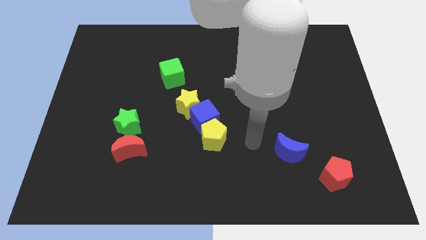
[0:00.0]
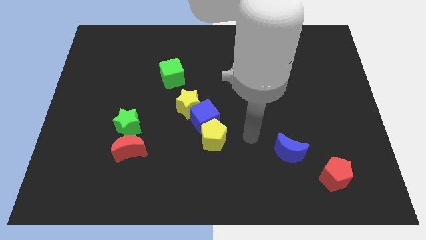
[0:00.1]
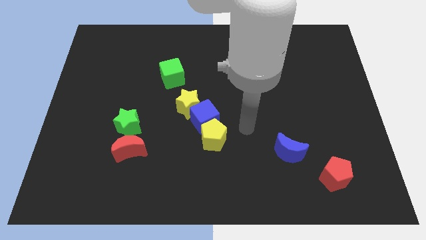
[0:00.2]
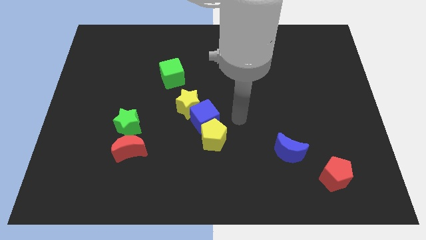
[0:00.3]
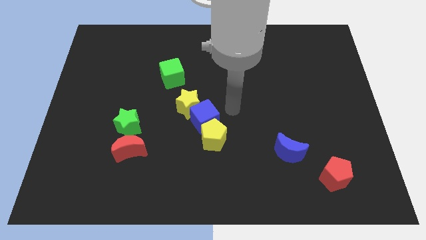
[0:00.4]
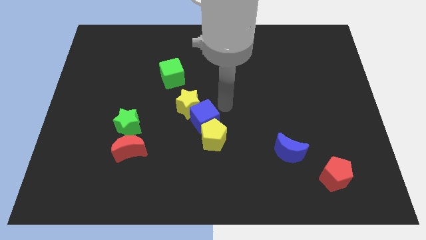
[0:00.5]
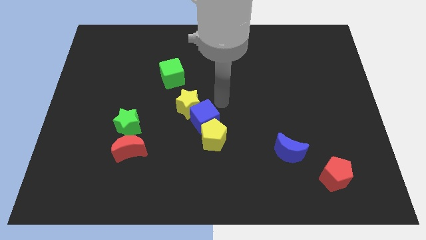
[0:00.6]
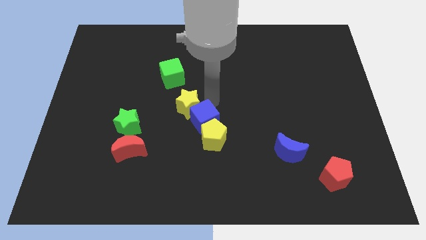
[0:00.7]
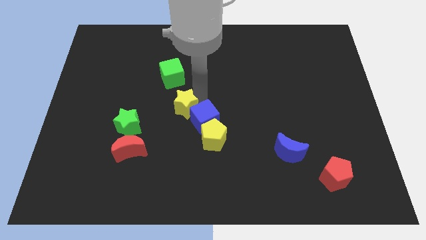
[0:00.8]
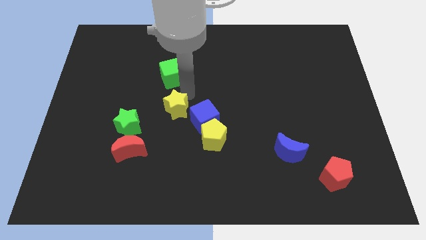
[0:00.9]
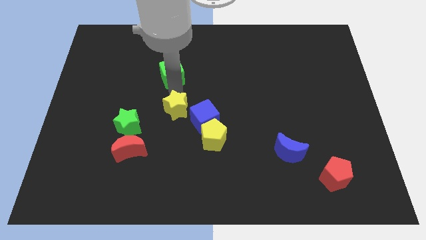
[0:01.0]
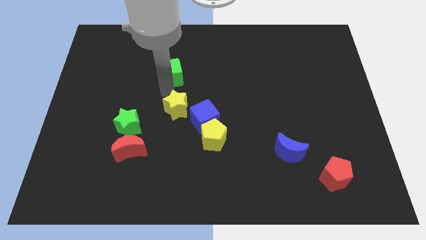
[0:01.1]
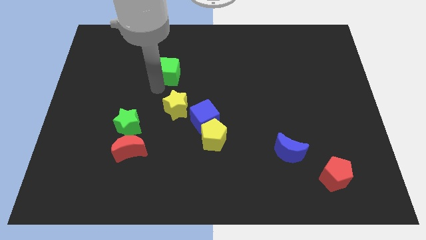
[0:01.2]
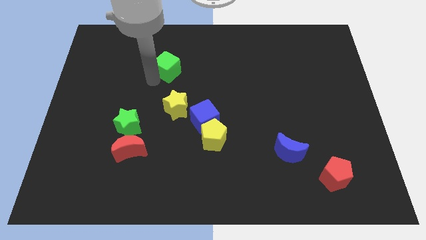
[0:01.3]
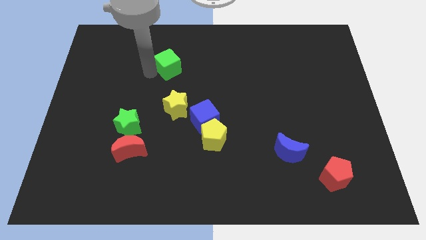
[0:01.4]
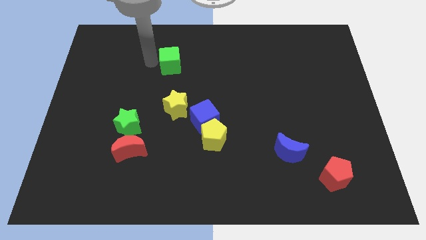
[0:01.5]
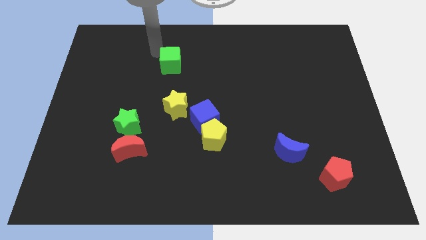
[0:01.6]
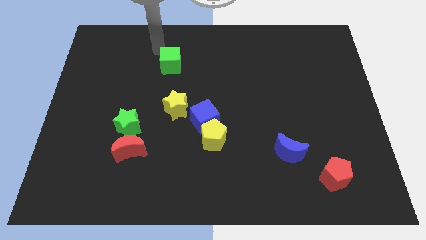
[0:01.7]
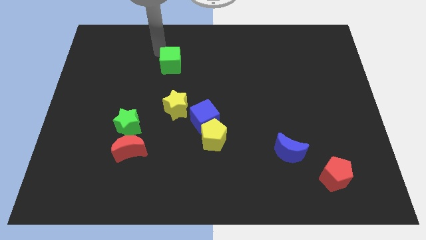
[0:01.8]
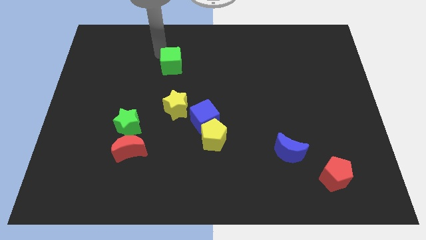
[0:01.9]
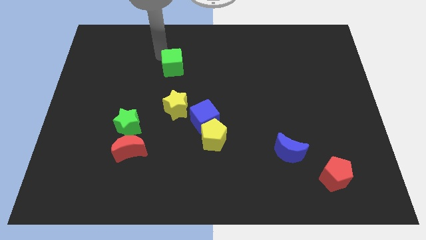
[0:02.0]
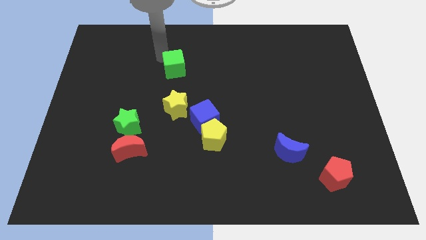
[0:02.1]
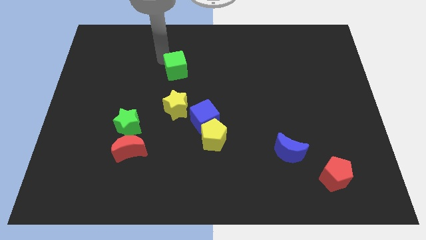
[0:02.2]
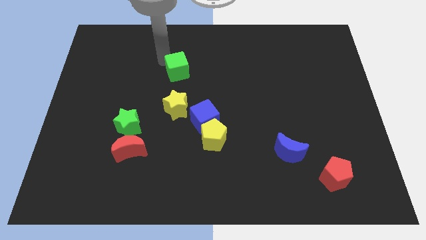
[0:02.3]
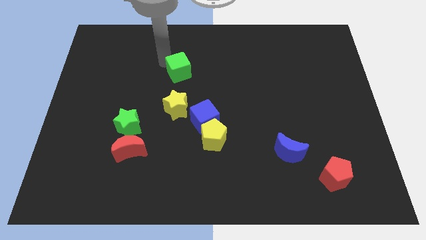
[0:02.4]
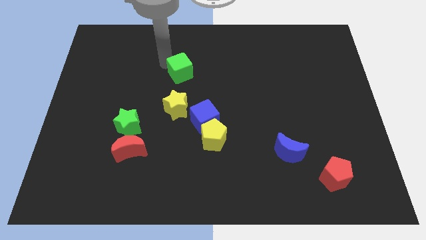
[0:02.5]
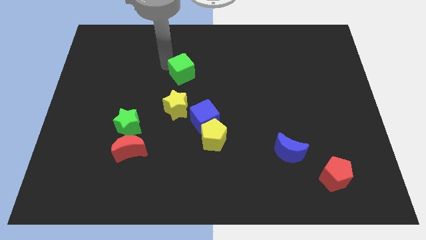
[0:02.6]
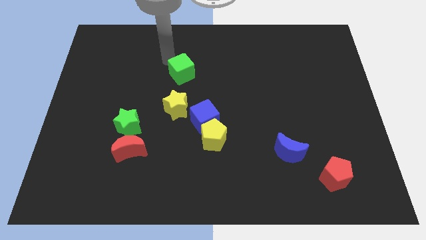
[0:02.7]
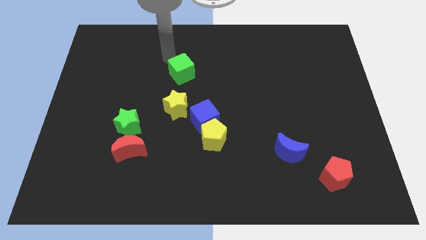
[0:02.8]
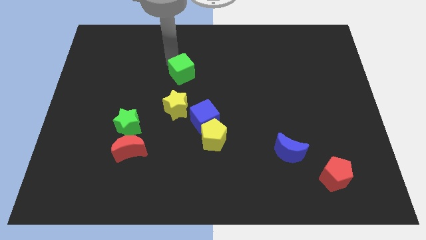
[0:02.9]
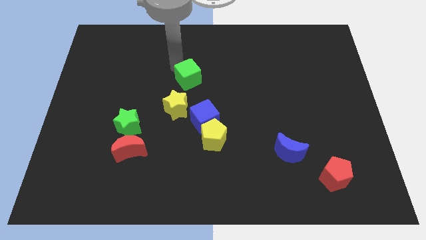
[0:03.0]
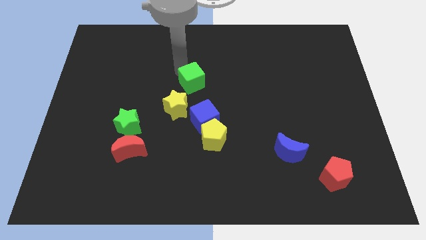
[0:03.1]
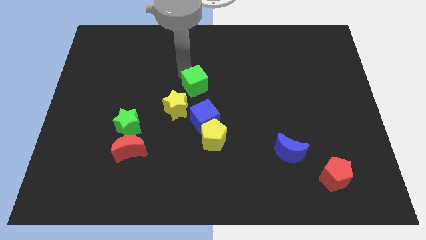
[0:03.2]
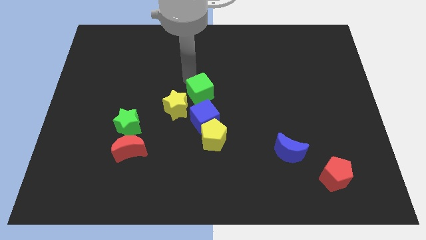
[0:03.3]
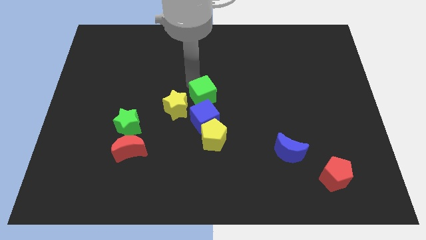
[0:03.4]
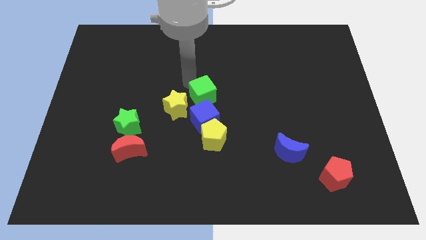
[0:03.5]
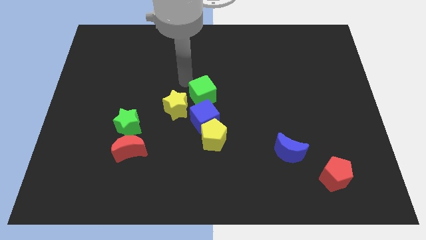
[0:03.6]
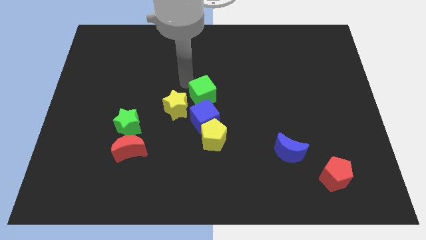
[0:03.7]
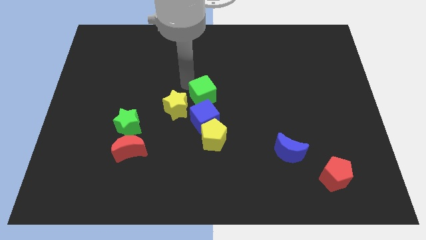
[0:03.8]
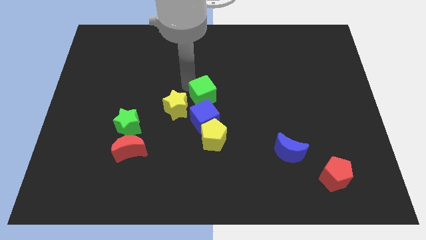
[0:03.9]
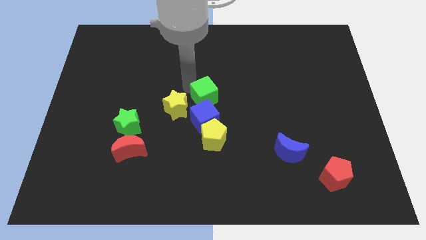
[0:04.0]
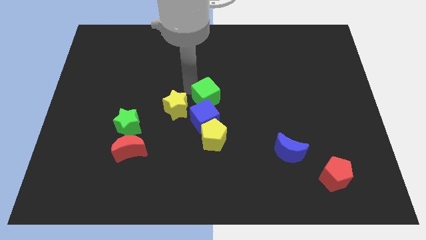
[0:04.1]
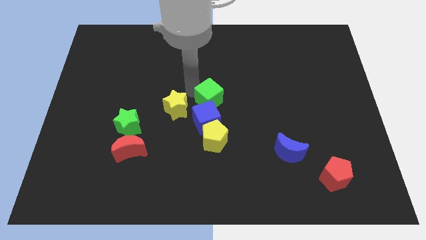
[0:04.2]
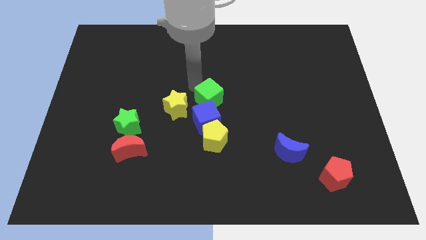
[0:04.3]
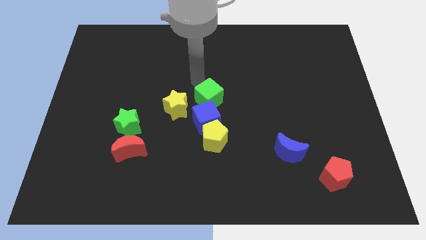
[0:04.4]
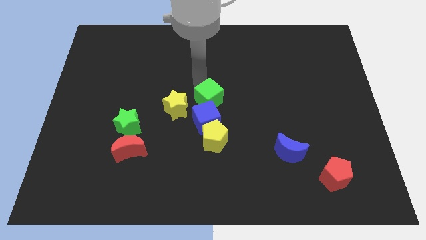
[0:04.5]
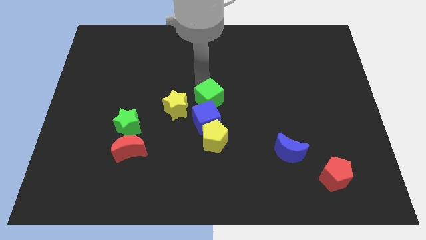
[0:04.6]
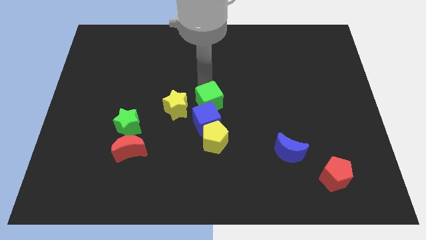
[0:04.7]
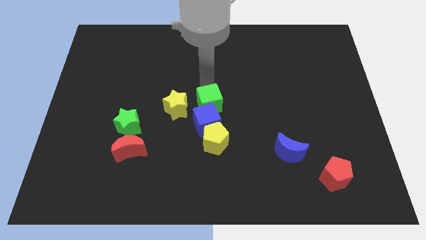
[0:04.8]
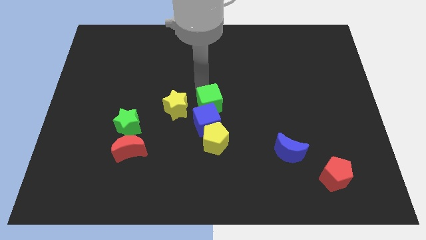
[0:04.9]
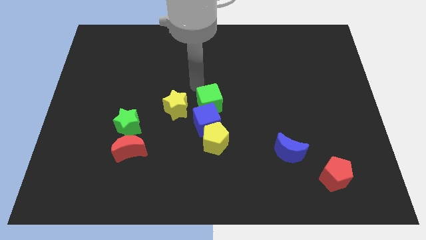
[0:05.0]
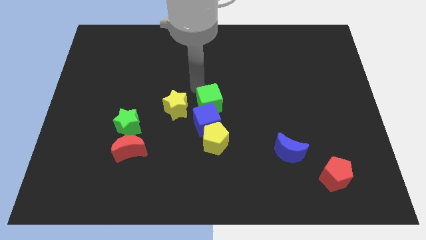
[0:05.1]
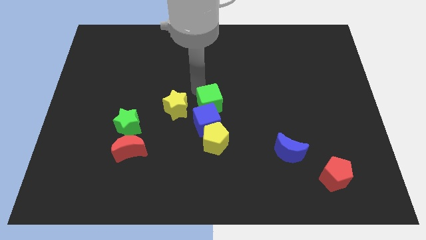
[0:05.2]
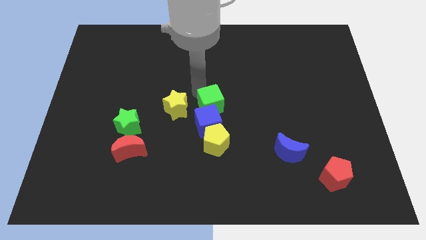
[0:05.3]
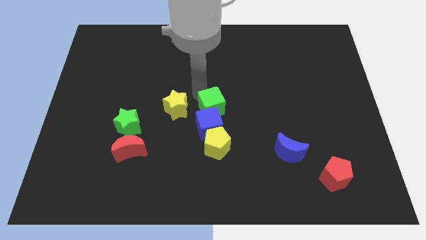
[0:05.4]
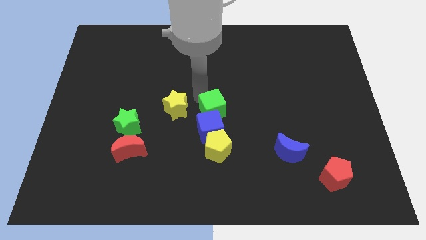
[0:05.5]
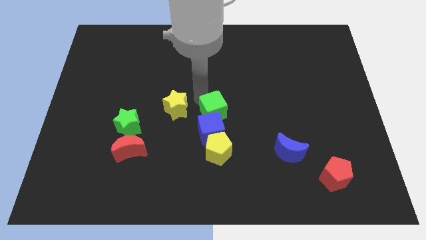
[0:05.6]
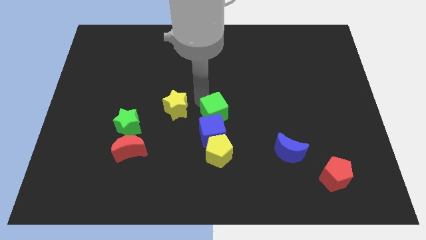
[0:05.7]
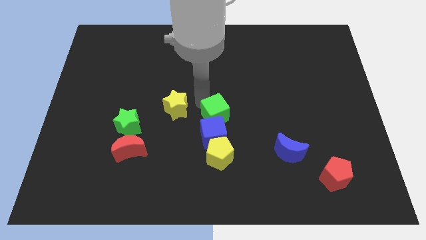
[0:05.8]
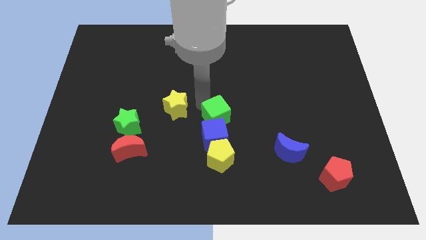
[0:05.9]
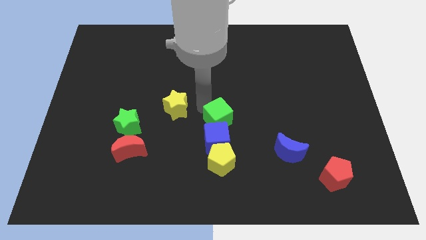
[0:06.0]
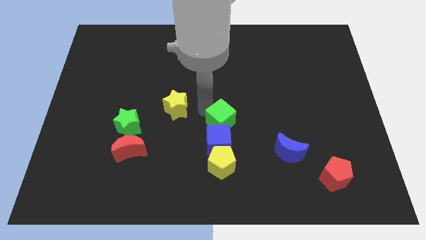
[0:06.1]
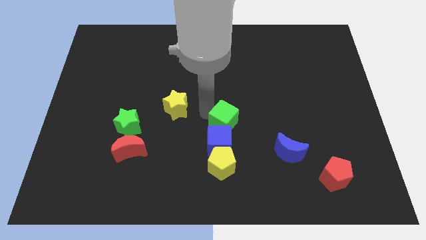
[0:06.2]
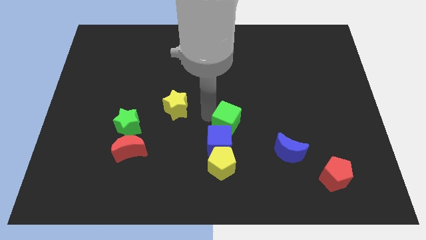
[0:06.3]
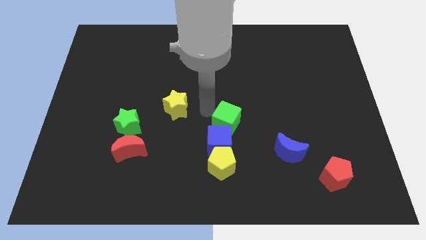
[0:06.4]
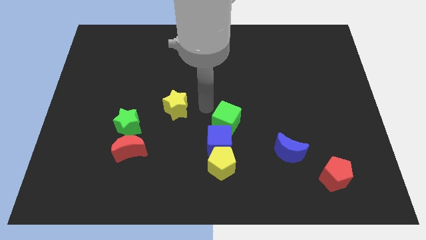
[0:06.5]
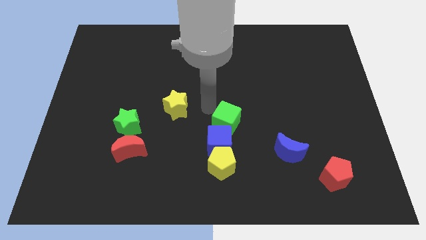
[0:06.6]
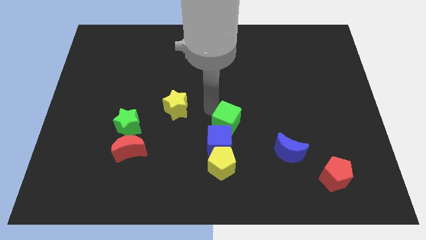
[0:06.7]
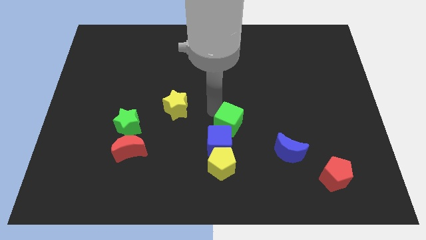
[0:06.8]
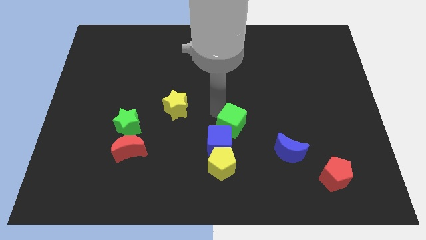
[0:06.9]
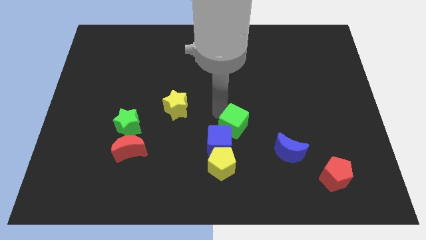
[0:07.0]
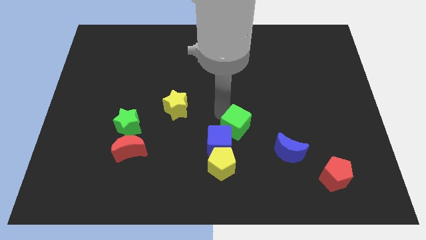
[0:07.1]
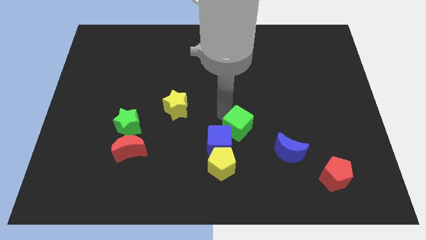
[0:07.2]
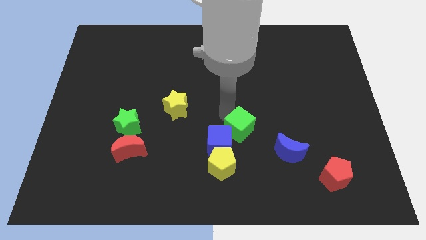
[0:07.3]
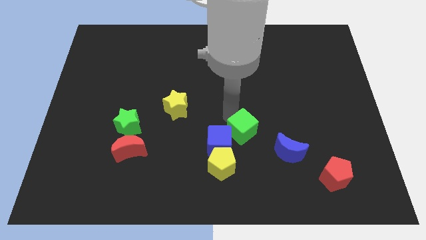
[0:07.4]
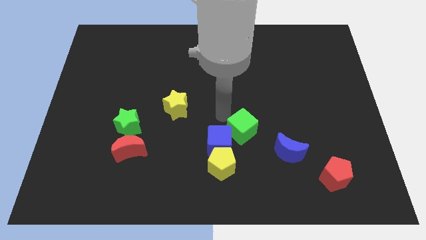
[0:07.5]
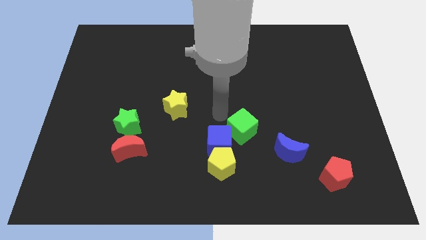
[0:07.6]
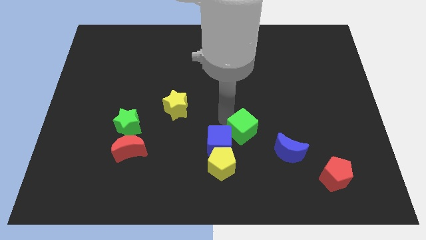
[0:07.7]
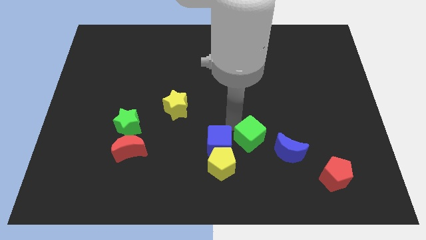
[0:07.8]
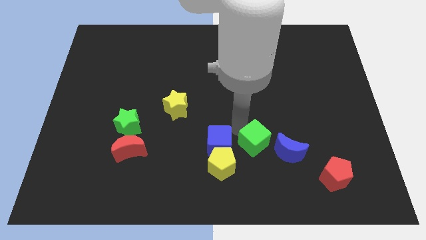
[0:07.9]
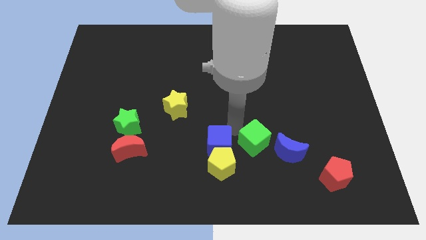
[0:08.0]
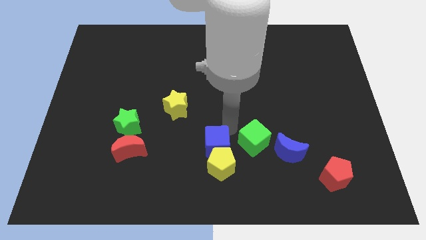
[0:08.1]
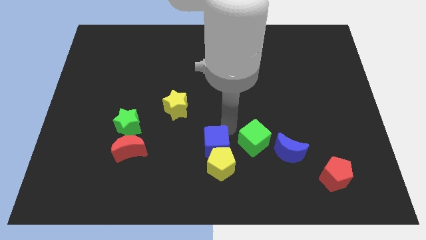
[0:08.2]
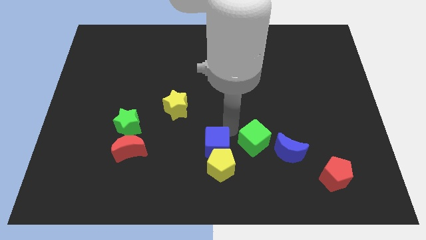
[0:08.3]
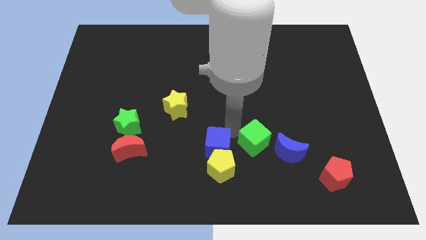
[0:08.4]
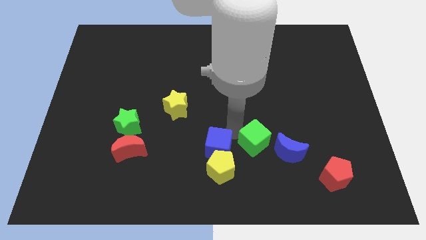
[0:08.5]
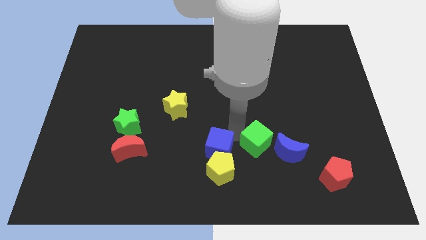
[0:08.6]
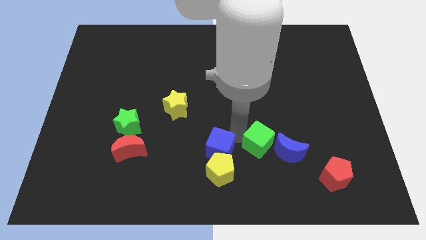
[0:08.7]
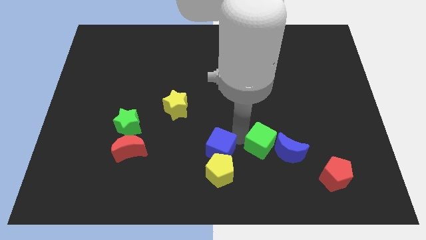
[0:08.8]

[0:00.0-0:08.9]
put the green cube to the blue moon
